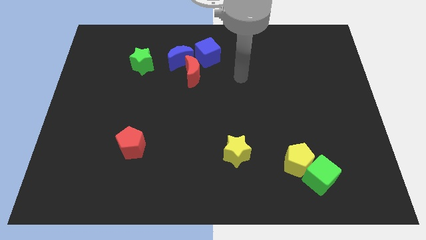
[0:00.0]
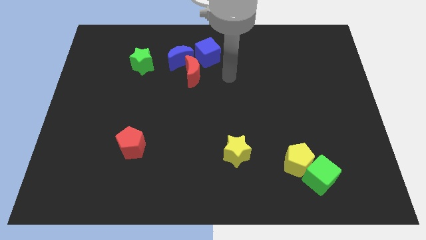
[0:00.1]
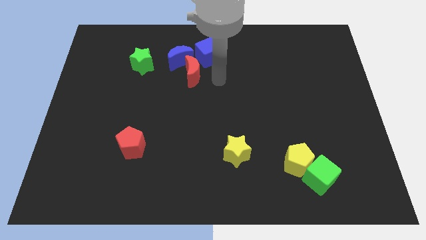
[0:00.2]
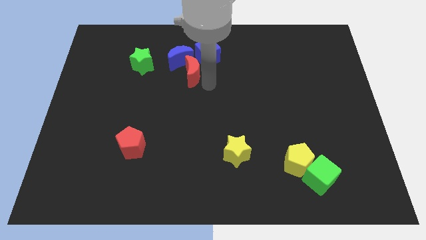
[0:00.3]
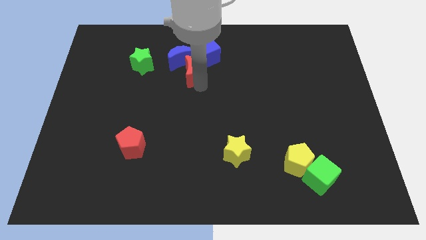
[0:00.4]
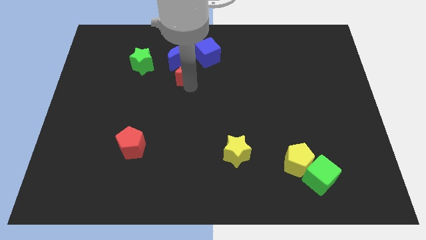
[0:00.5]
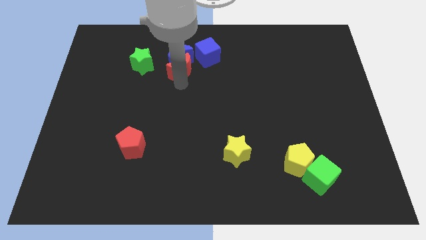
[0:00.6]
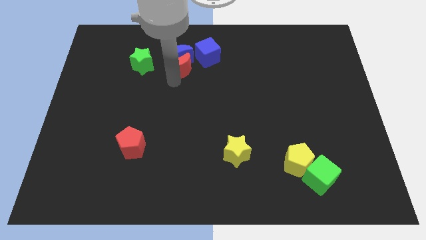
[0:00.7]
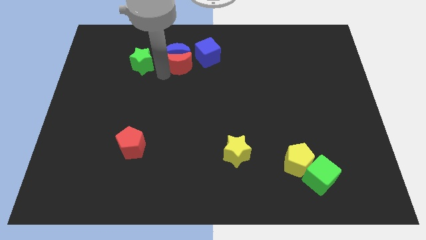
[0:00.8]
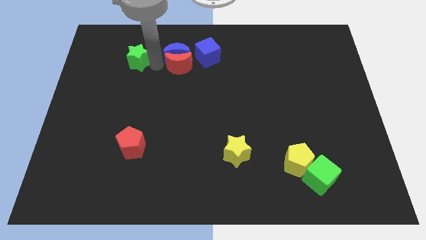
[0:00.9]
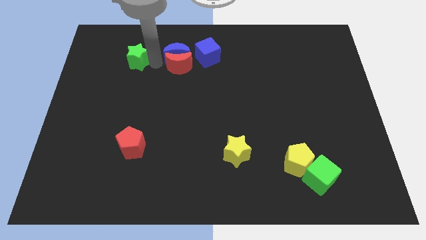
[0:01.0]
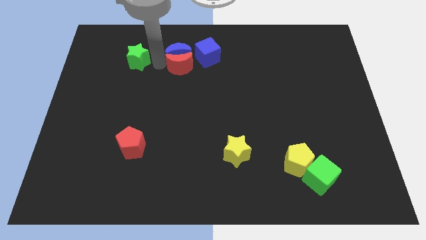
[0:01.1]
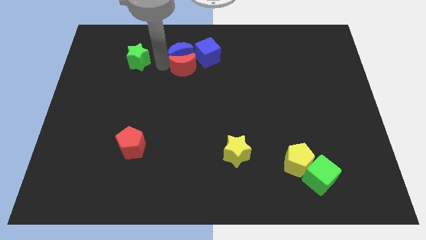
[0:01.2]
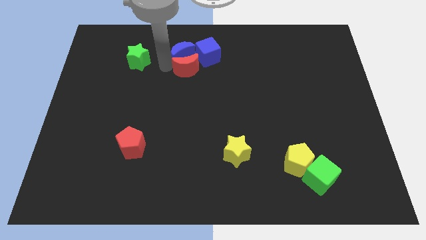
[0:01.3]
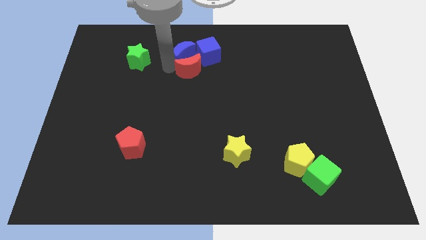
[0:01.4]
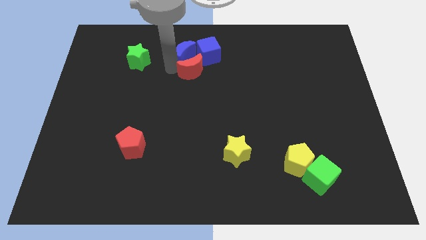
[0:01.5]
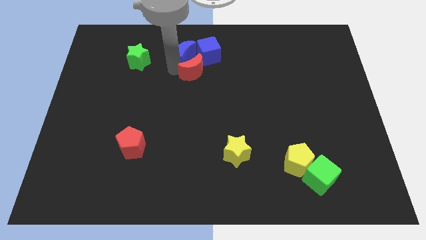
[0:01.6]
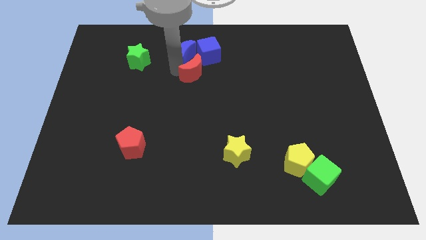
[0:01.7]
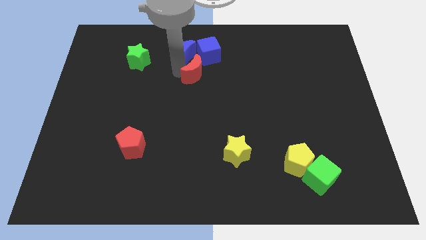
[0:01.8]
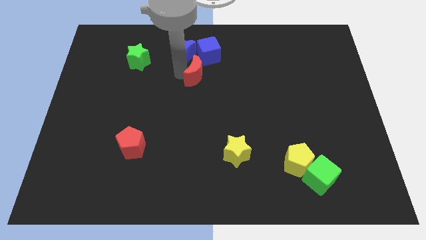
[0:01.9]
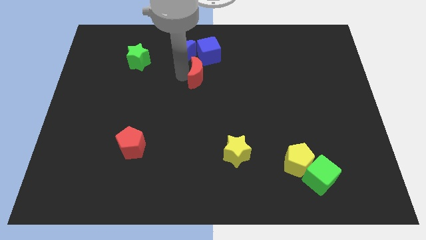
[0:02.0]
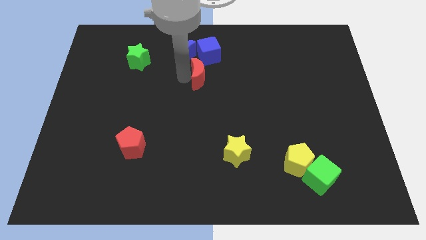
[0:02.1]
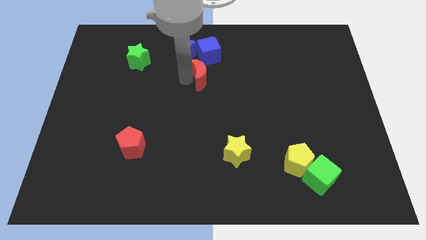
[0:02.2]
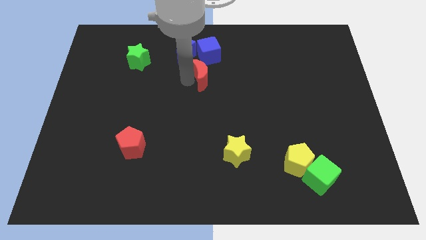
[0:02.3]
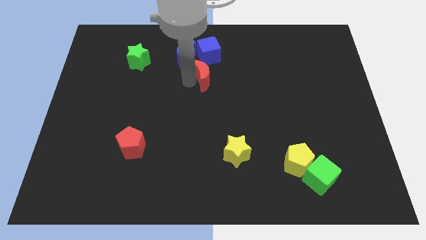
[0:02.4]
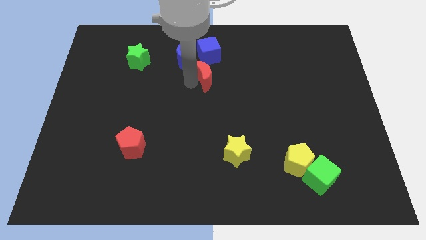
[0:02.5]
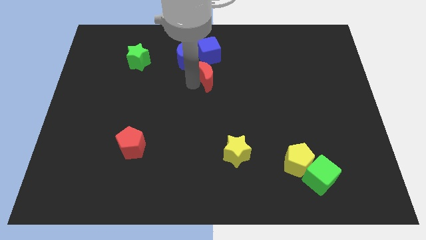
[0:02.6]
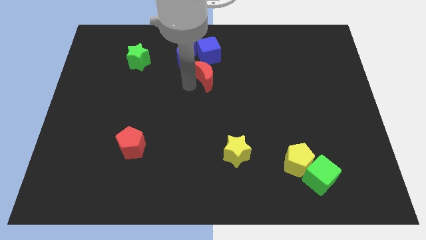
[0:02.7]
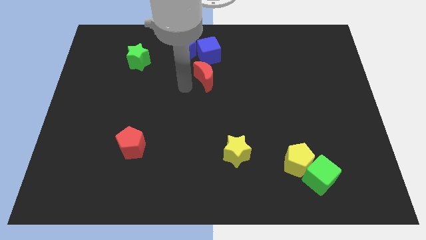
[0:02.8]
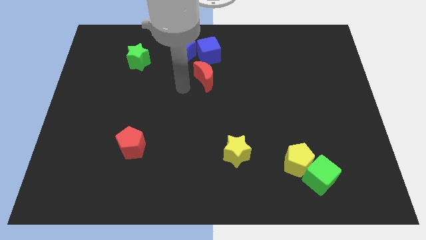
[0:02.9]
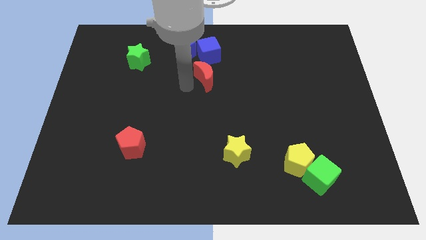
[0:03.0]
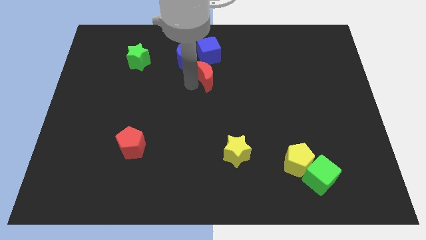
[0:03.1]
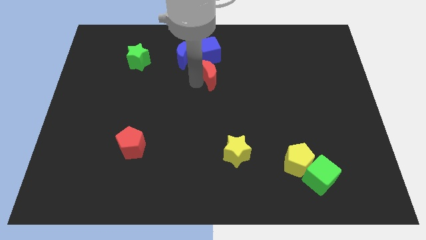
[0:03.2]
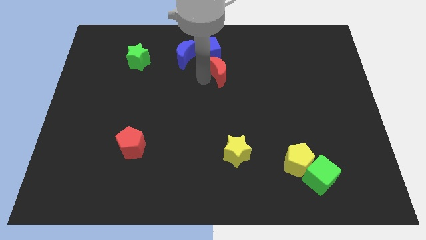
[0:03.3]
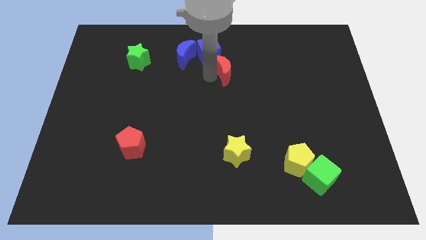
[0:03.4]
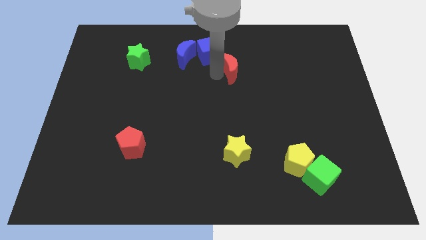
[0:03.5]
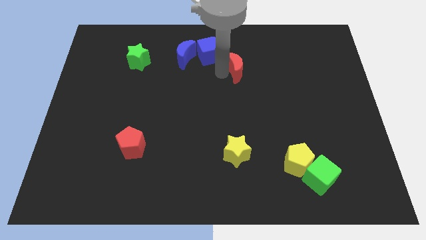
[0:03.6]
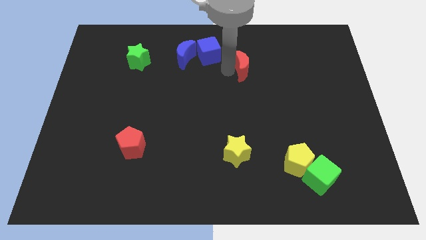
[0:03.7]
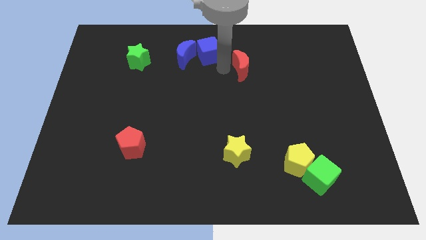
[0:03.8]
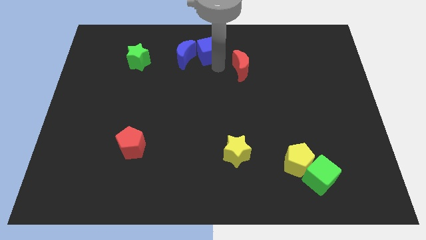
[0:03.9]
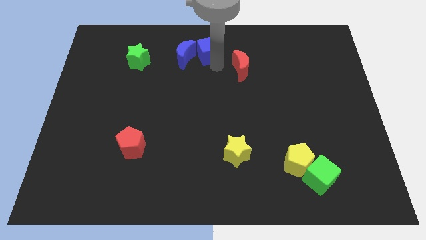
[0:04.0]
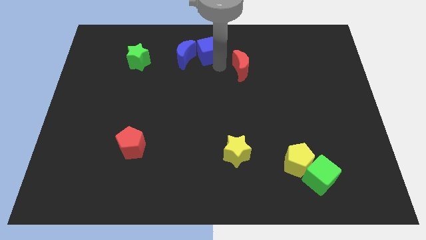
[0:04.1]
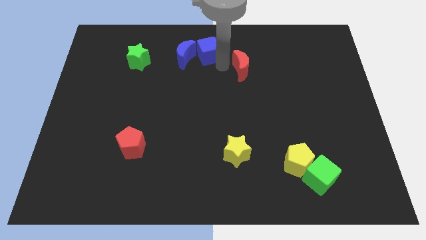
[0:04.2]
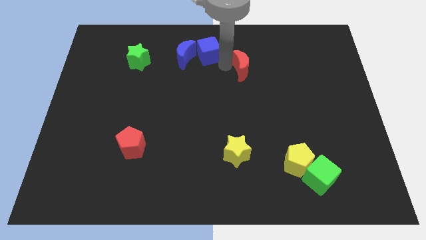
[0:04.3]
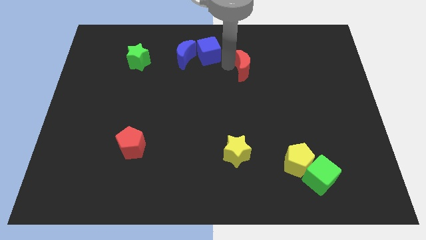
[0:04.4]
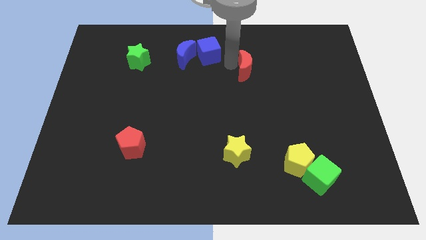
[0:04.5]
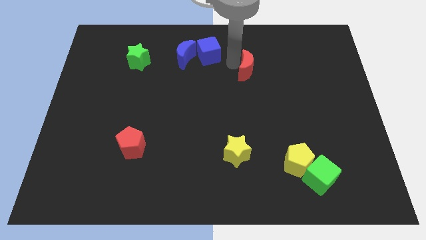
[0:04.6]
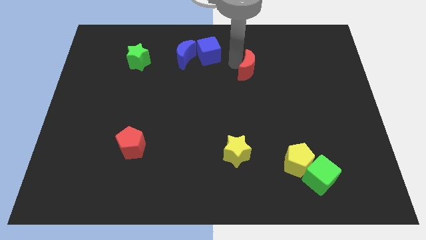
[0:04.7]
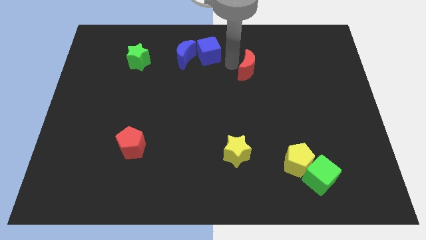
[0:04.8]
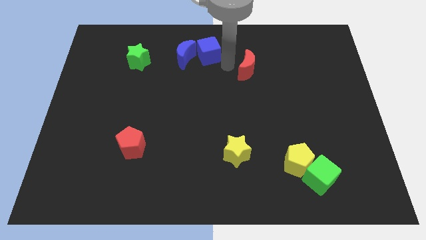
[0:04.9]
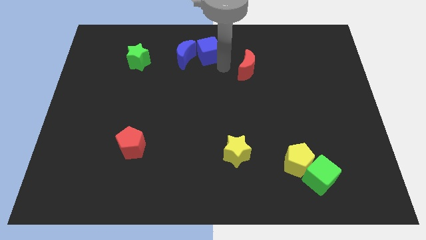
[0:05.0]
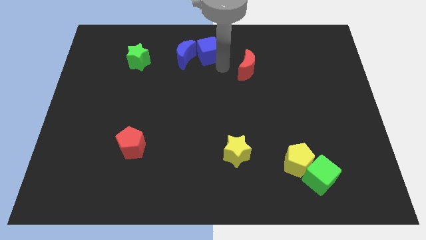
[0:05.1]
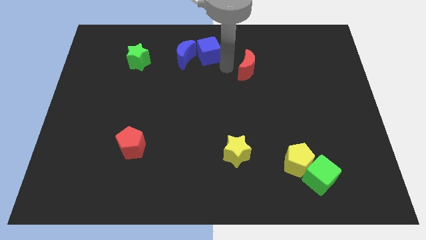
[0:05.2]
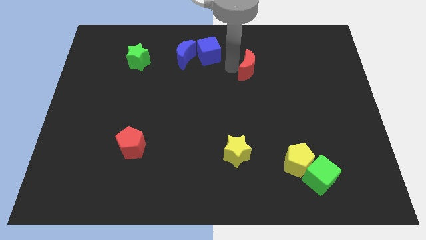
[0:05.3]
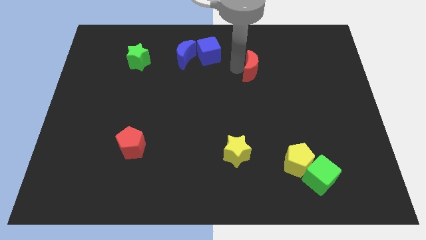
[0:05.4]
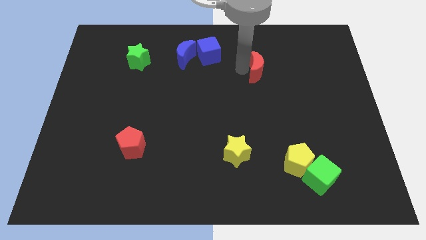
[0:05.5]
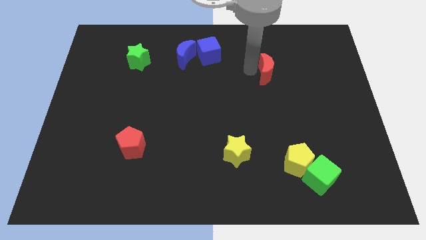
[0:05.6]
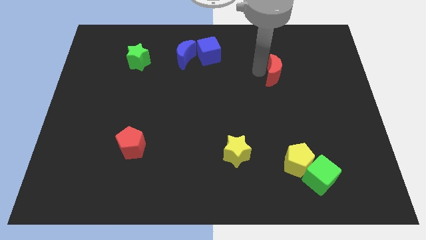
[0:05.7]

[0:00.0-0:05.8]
move the red moon right

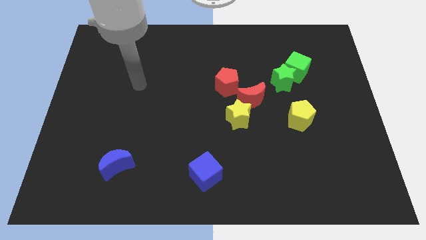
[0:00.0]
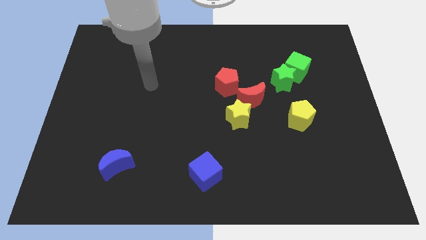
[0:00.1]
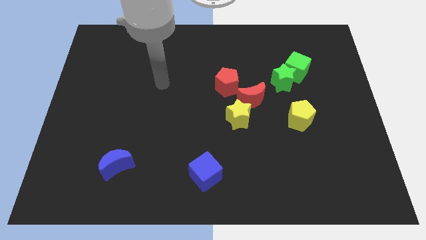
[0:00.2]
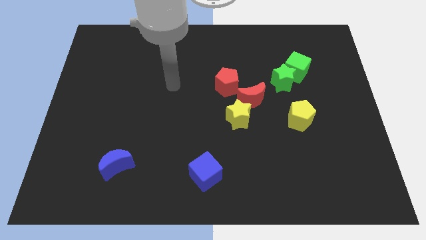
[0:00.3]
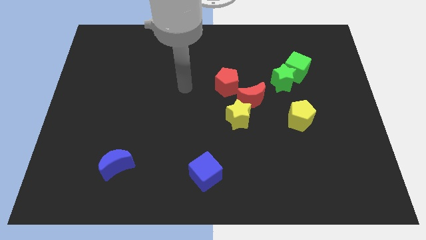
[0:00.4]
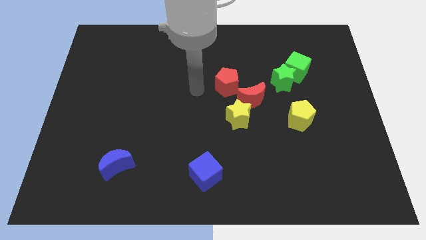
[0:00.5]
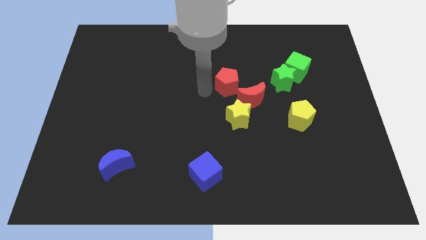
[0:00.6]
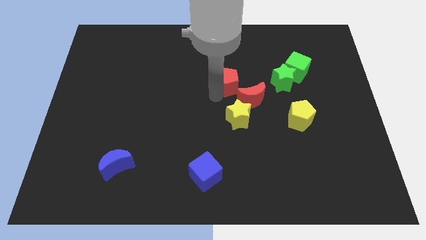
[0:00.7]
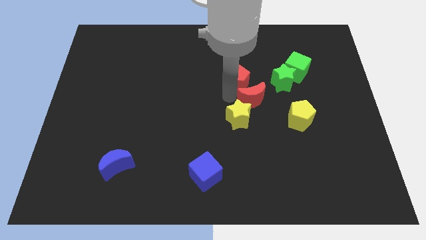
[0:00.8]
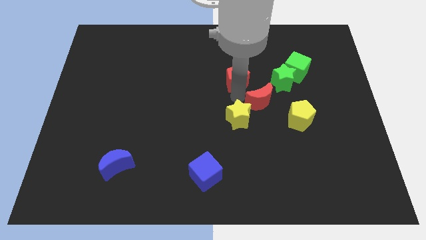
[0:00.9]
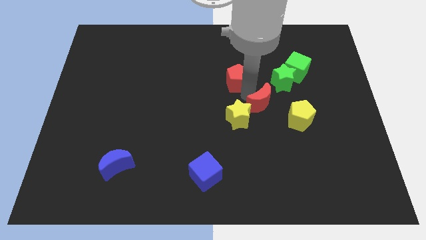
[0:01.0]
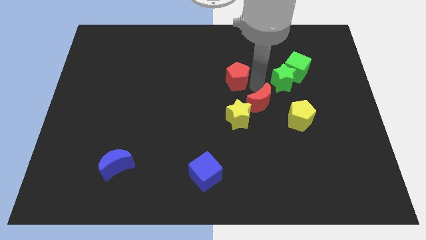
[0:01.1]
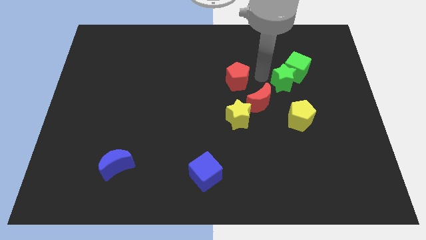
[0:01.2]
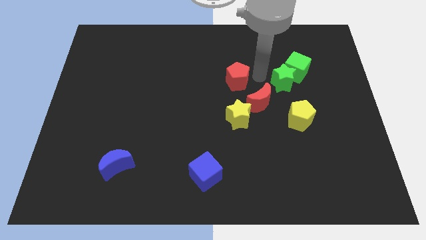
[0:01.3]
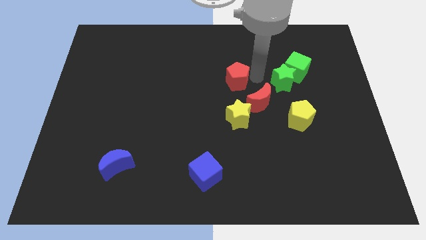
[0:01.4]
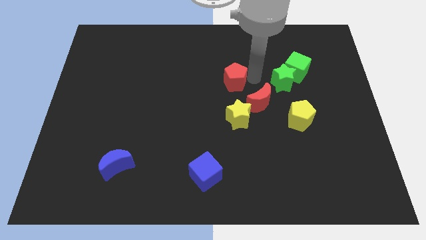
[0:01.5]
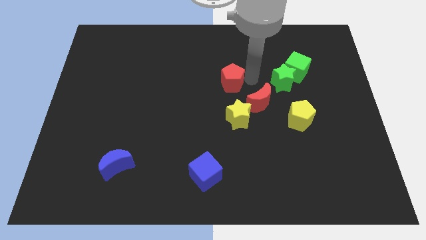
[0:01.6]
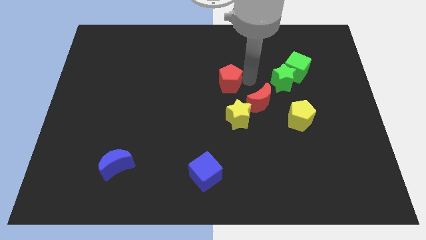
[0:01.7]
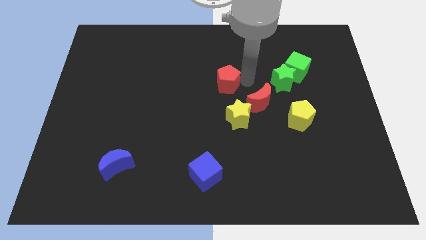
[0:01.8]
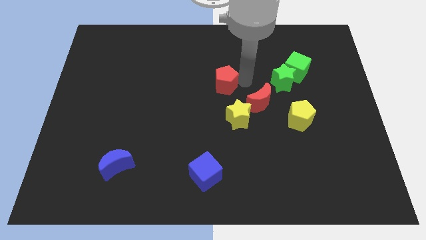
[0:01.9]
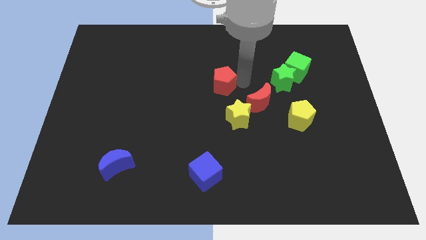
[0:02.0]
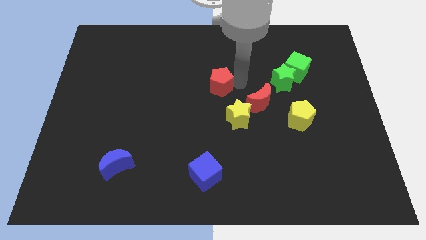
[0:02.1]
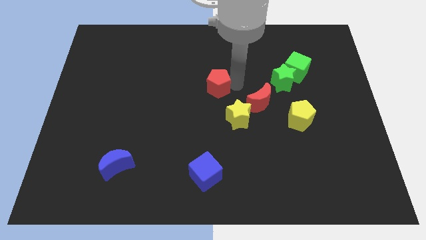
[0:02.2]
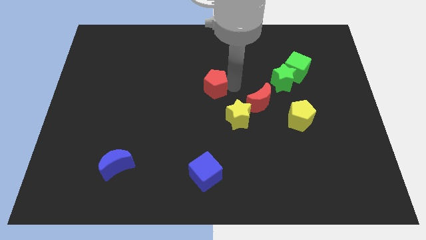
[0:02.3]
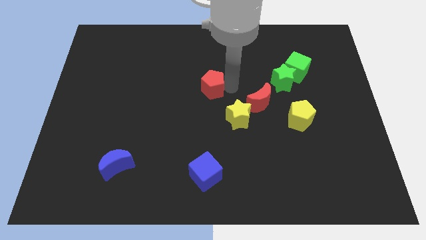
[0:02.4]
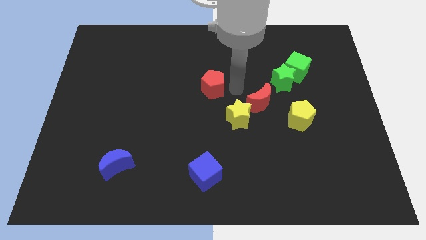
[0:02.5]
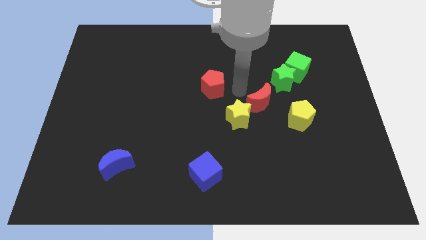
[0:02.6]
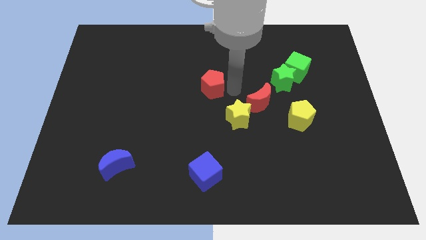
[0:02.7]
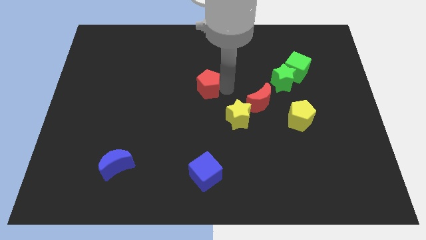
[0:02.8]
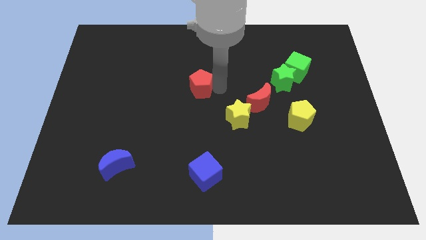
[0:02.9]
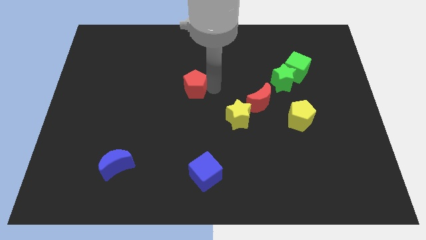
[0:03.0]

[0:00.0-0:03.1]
slide the red pentagon left slightly
